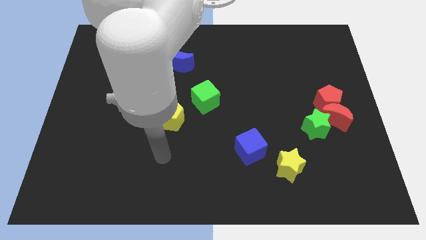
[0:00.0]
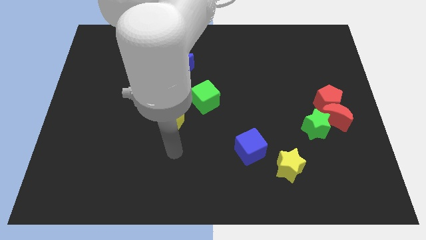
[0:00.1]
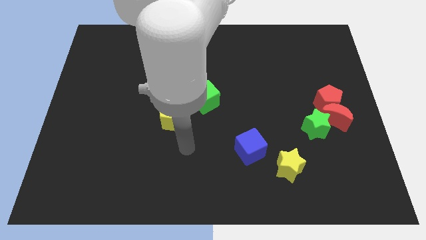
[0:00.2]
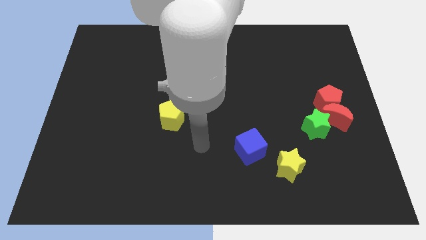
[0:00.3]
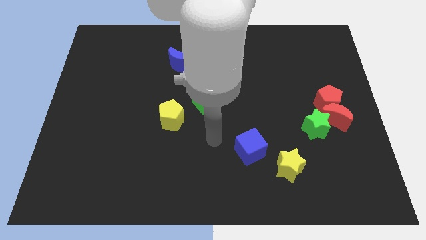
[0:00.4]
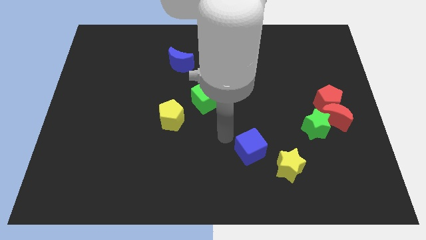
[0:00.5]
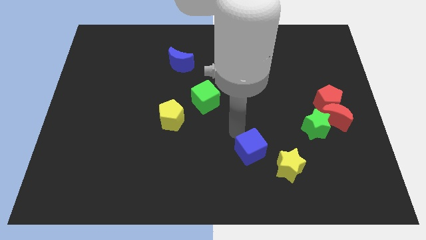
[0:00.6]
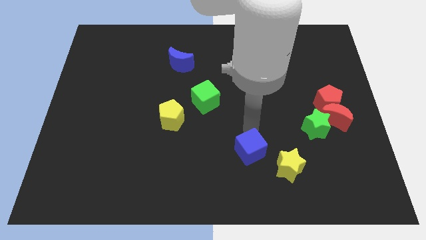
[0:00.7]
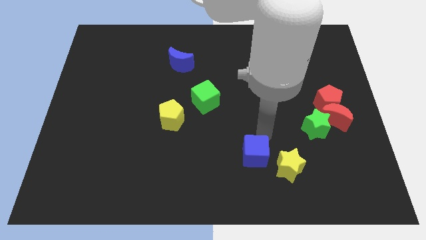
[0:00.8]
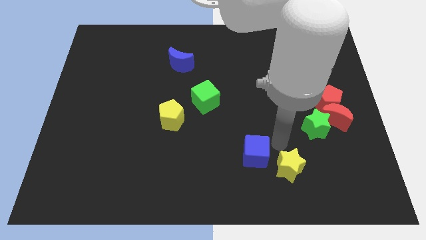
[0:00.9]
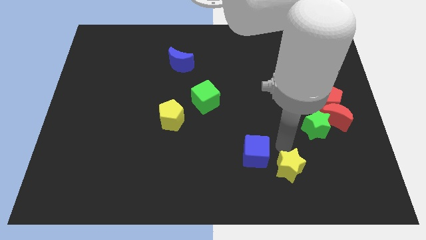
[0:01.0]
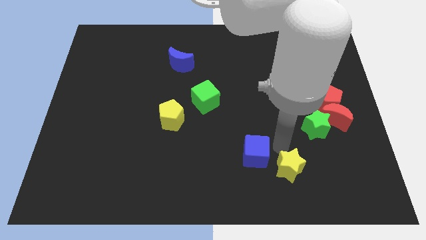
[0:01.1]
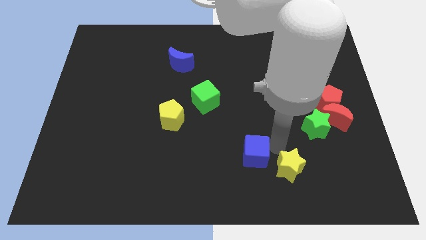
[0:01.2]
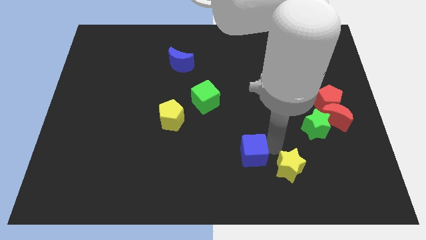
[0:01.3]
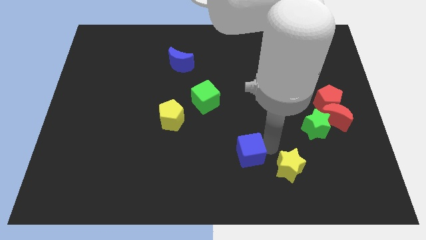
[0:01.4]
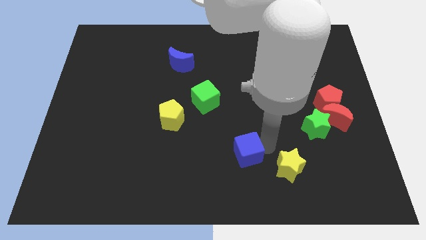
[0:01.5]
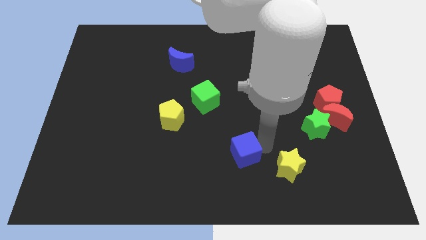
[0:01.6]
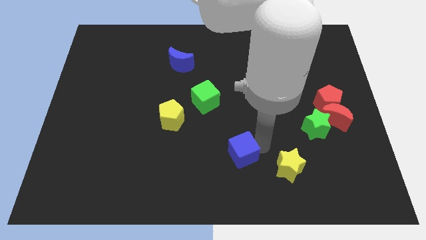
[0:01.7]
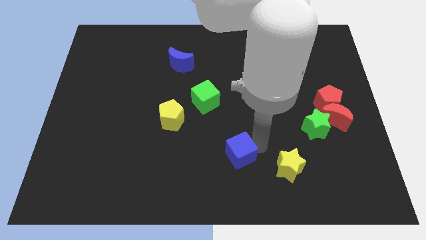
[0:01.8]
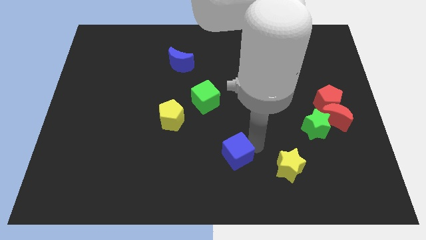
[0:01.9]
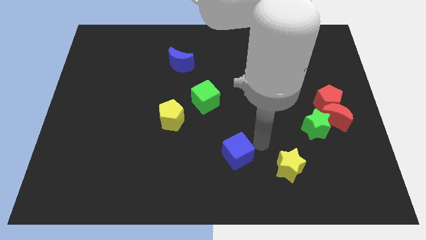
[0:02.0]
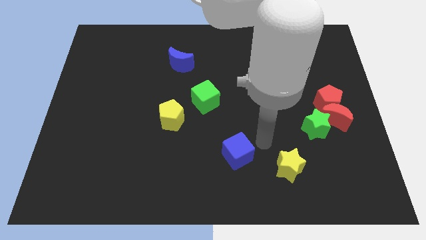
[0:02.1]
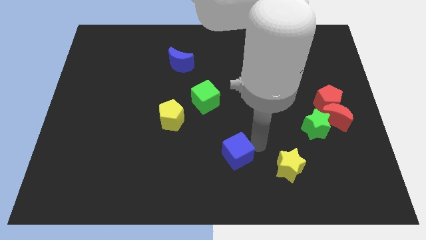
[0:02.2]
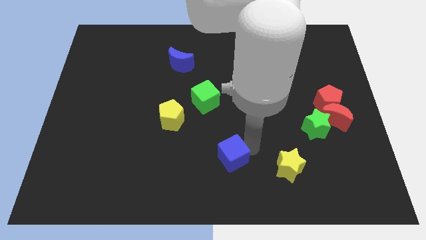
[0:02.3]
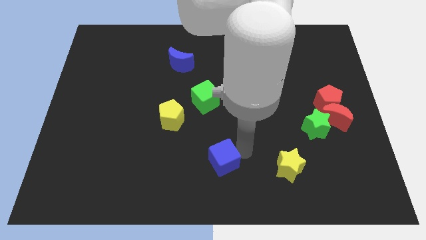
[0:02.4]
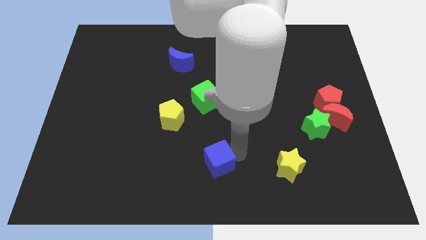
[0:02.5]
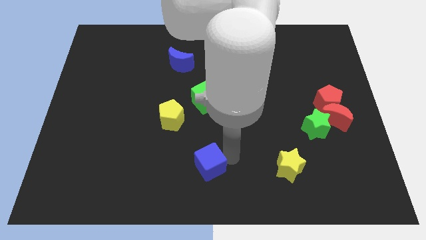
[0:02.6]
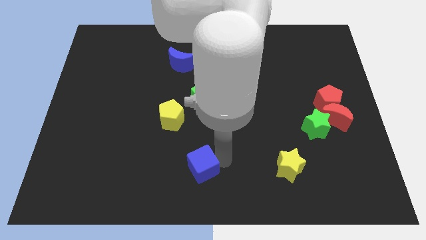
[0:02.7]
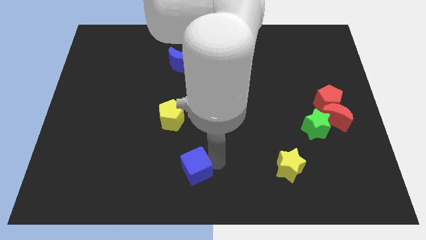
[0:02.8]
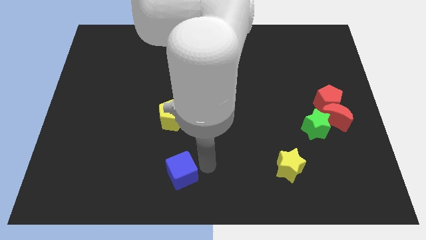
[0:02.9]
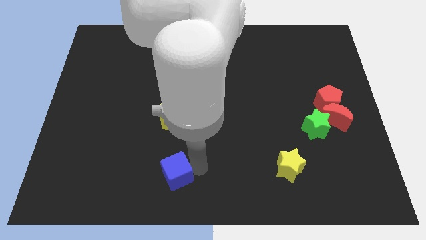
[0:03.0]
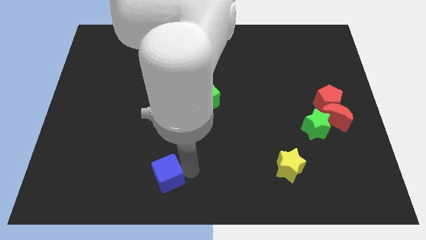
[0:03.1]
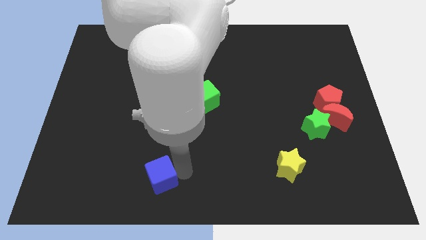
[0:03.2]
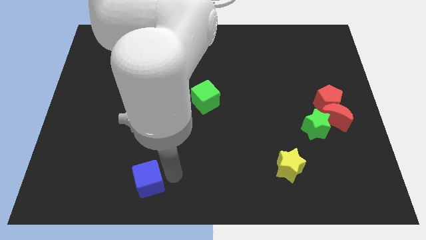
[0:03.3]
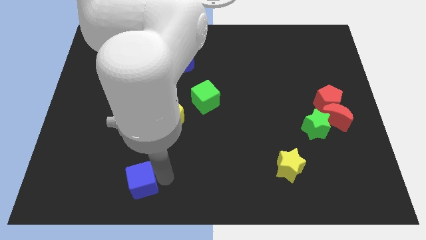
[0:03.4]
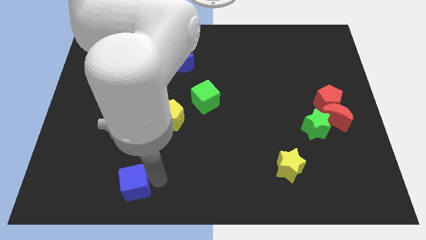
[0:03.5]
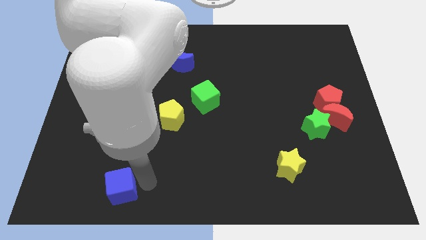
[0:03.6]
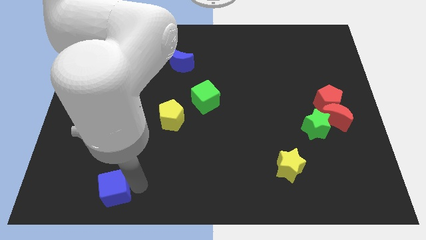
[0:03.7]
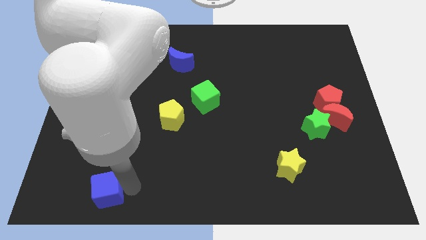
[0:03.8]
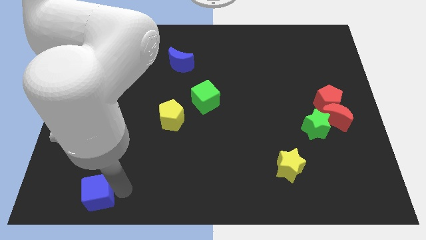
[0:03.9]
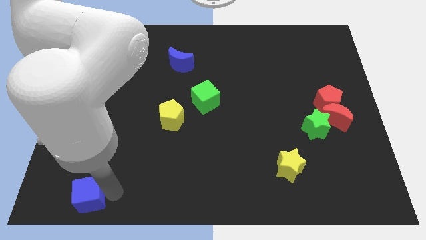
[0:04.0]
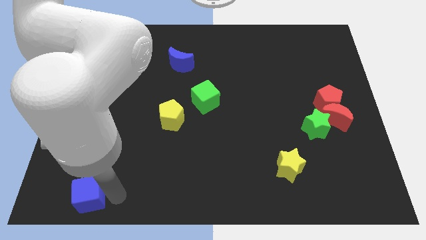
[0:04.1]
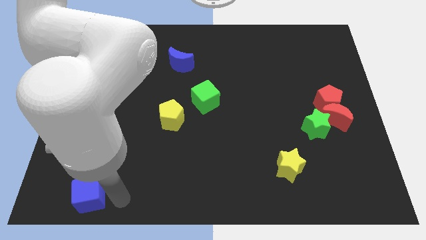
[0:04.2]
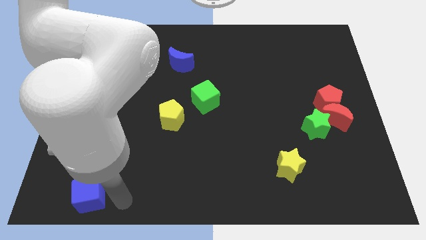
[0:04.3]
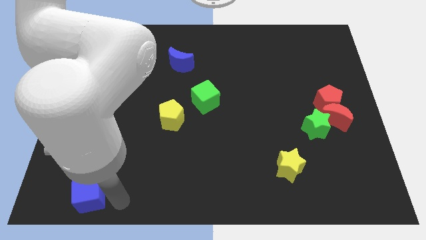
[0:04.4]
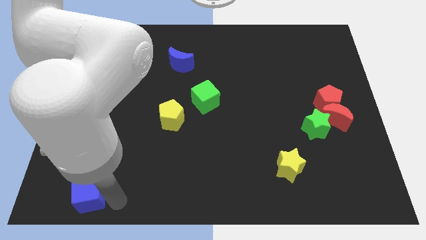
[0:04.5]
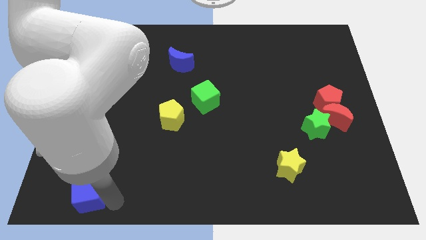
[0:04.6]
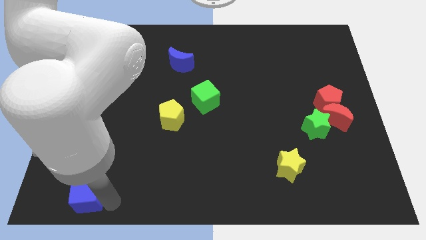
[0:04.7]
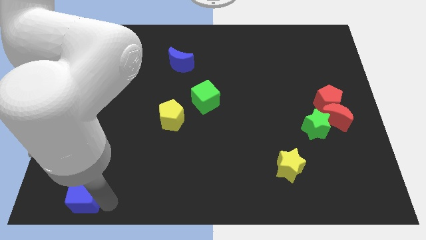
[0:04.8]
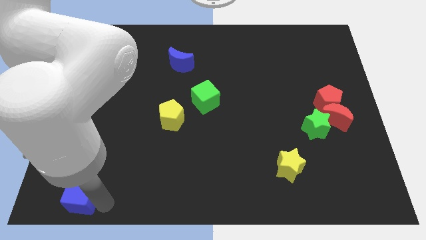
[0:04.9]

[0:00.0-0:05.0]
push the blue cube to the lower left corner

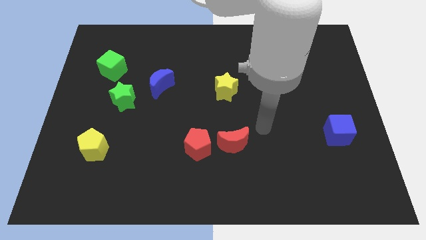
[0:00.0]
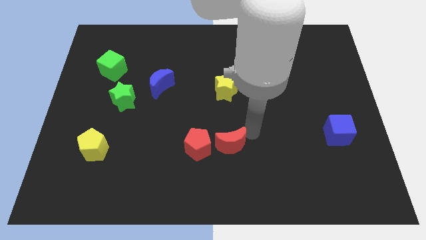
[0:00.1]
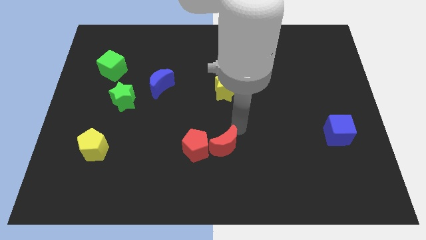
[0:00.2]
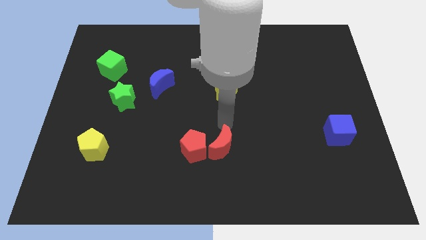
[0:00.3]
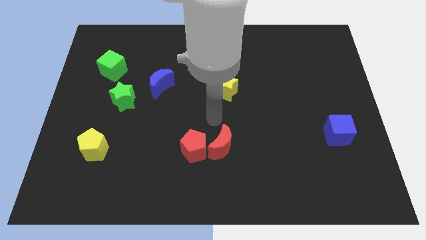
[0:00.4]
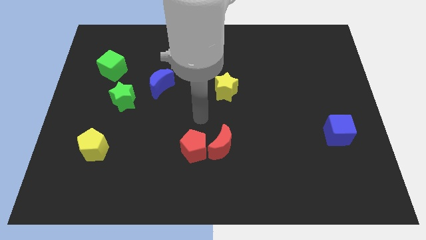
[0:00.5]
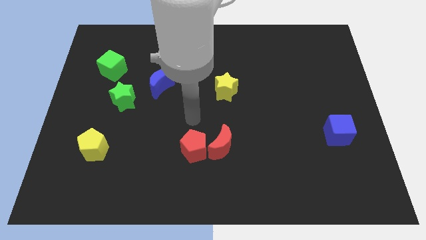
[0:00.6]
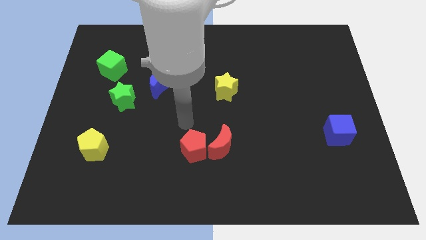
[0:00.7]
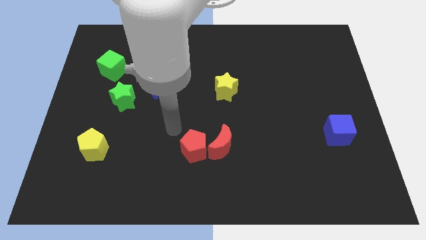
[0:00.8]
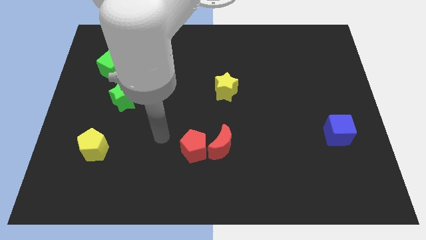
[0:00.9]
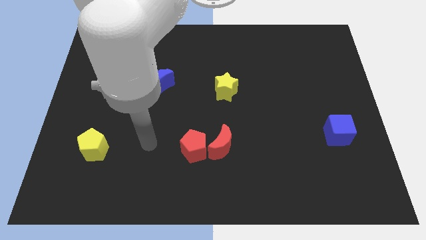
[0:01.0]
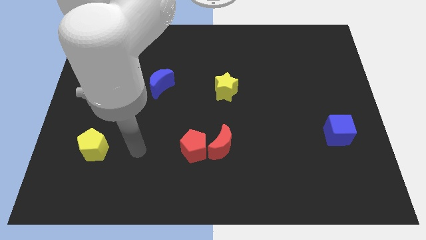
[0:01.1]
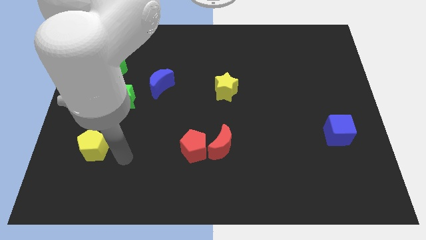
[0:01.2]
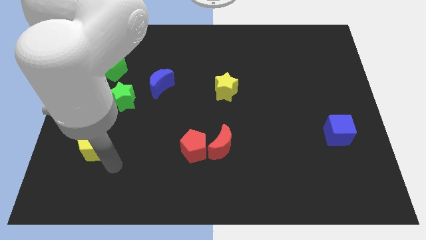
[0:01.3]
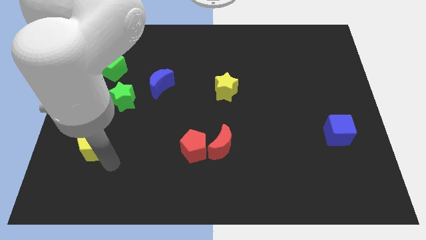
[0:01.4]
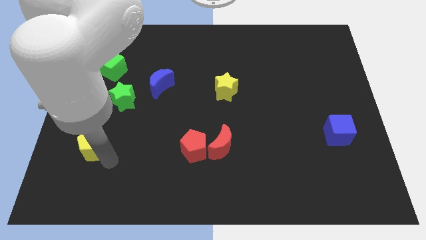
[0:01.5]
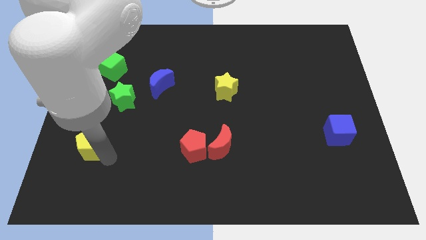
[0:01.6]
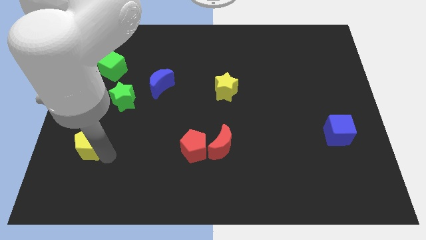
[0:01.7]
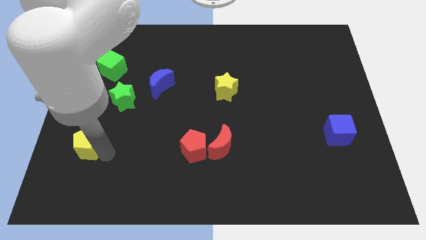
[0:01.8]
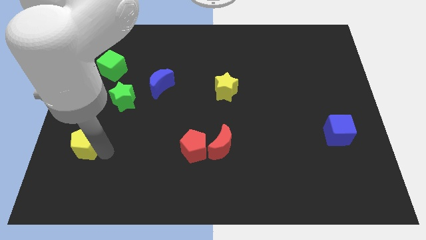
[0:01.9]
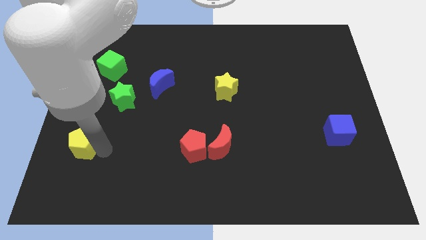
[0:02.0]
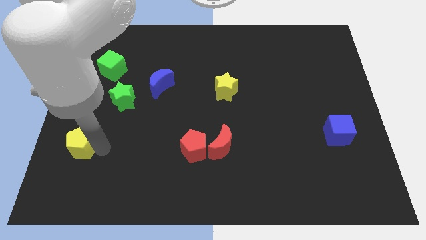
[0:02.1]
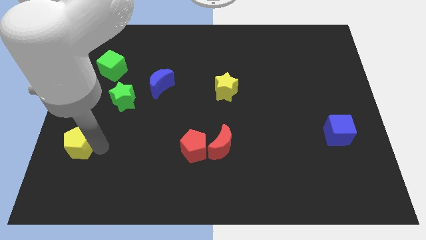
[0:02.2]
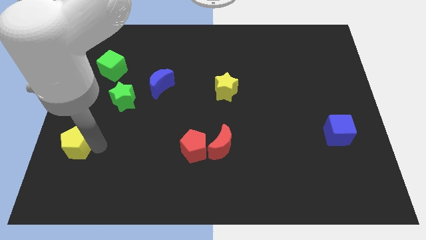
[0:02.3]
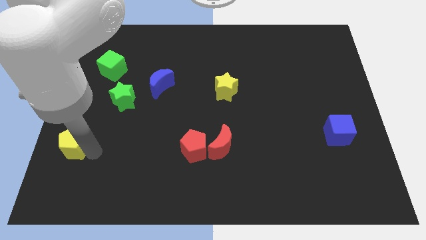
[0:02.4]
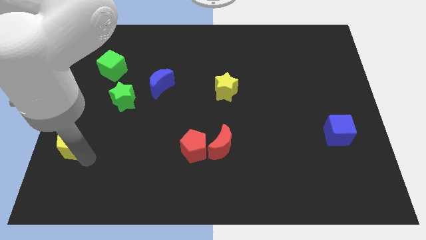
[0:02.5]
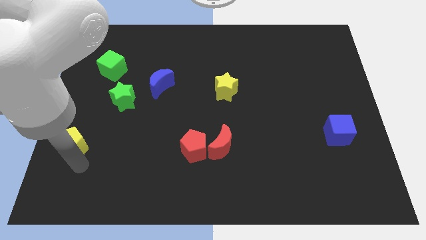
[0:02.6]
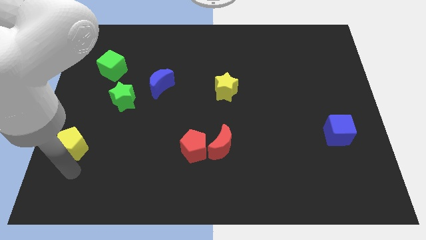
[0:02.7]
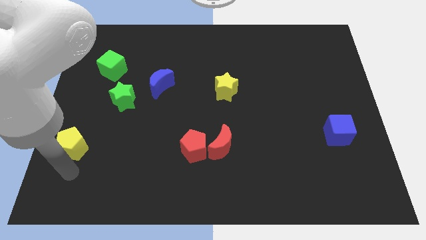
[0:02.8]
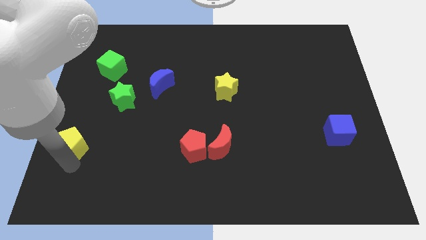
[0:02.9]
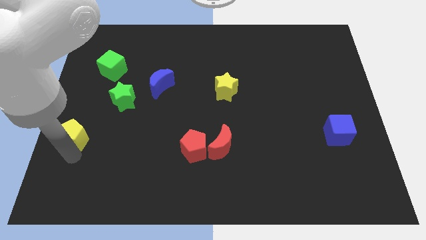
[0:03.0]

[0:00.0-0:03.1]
move the yellow pentagon to the left side of the board
